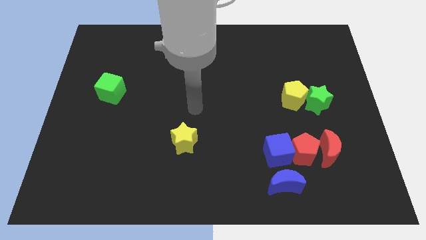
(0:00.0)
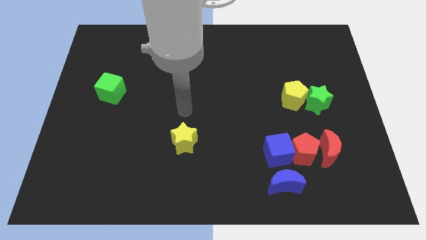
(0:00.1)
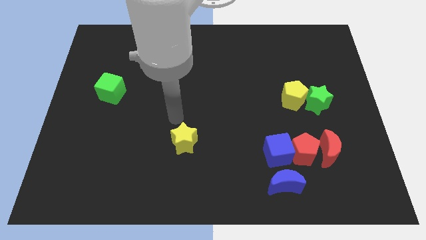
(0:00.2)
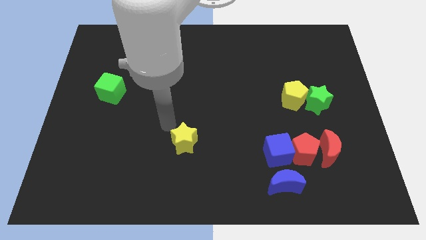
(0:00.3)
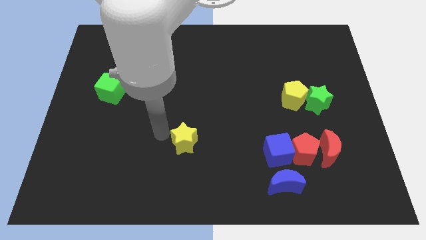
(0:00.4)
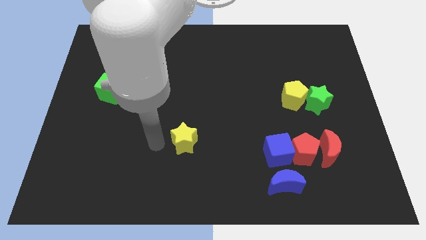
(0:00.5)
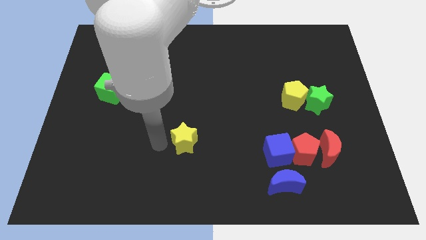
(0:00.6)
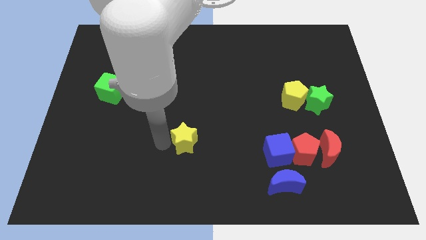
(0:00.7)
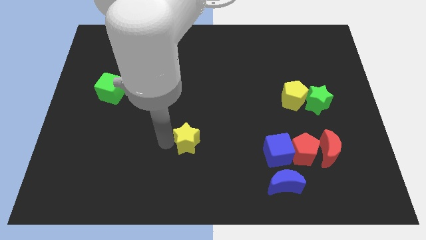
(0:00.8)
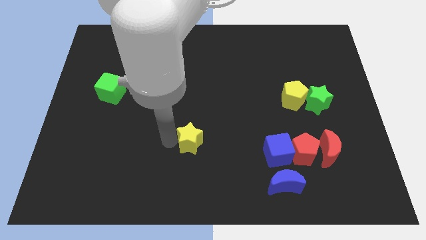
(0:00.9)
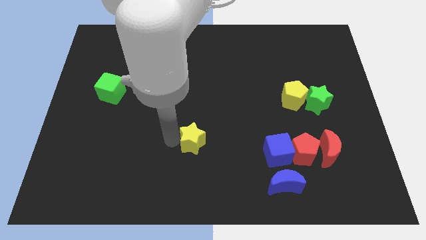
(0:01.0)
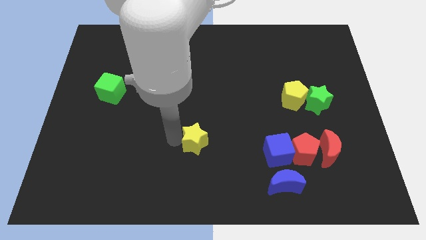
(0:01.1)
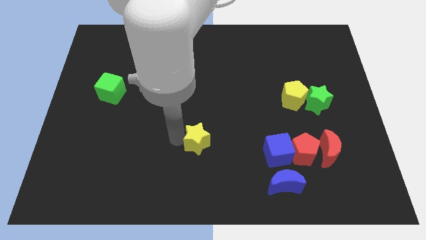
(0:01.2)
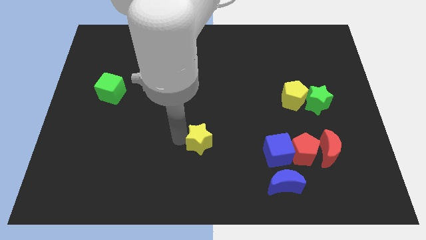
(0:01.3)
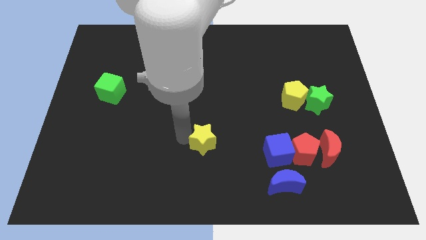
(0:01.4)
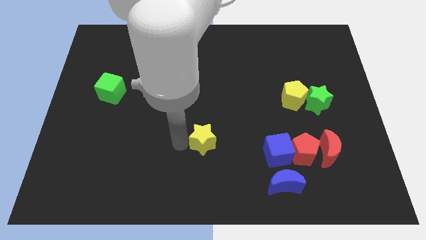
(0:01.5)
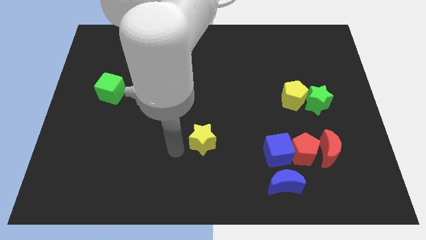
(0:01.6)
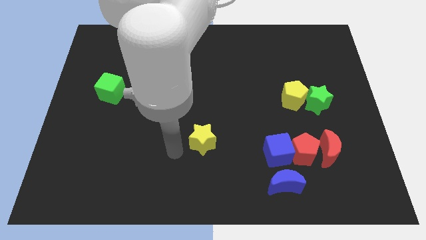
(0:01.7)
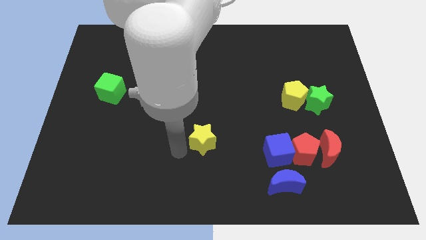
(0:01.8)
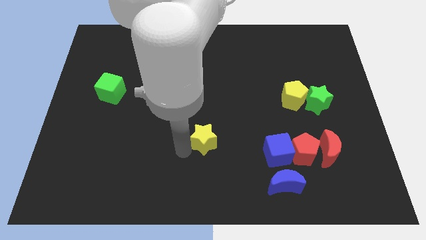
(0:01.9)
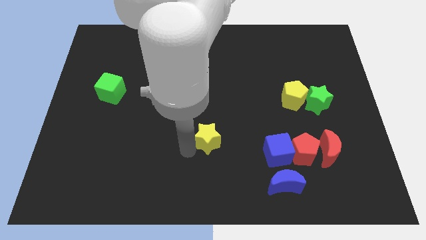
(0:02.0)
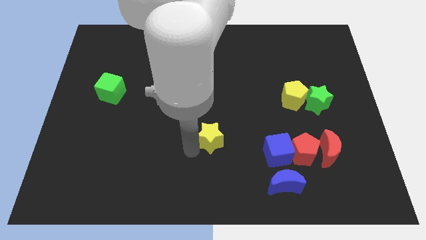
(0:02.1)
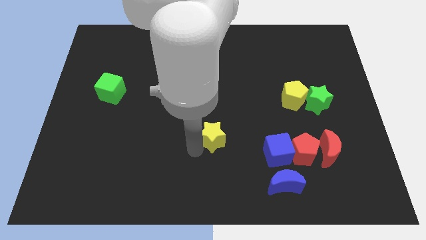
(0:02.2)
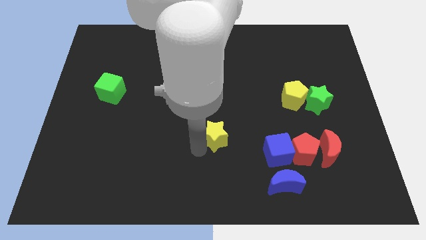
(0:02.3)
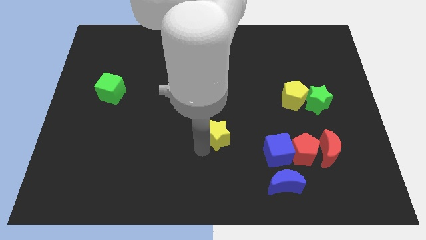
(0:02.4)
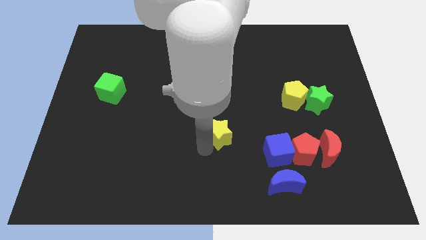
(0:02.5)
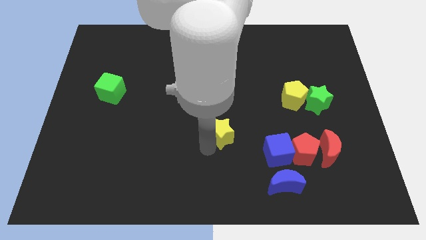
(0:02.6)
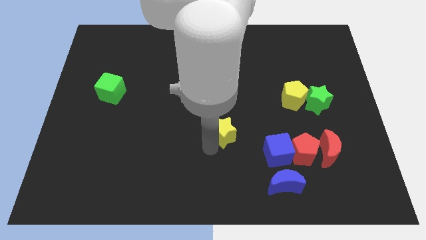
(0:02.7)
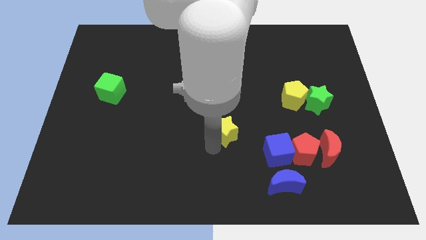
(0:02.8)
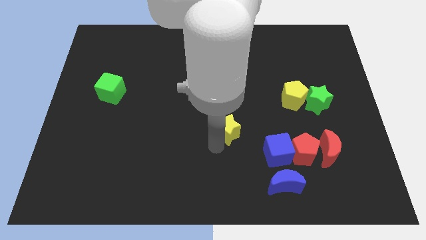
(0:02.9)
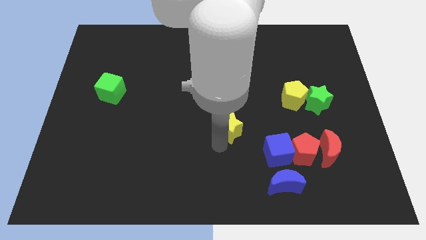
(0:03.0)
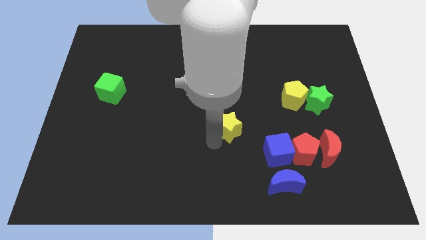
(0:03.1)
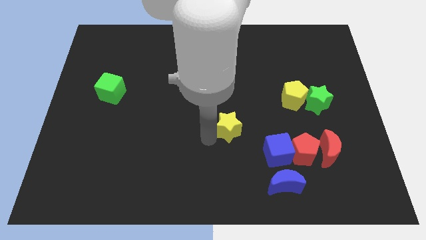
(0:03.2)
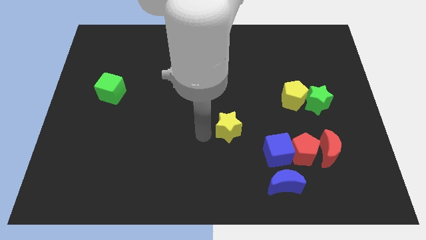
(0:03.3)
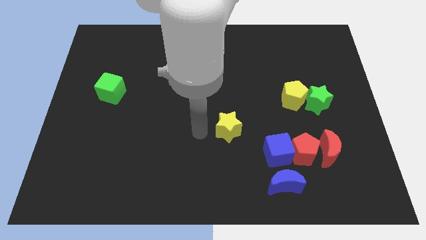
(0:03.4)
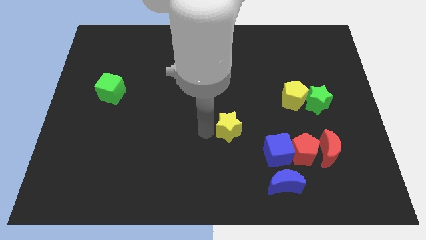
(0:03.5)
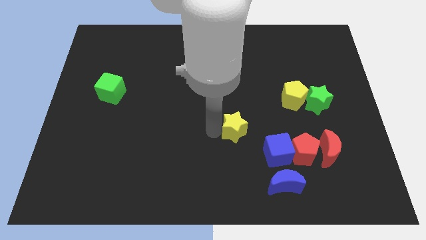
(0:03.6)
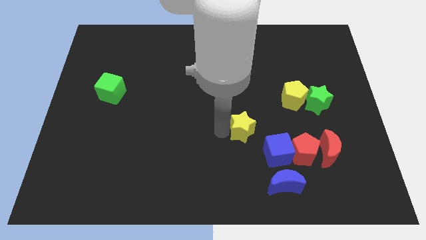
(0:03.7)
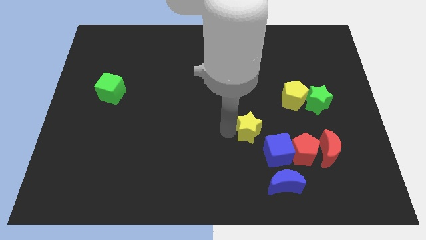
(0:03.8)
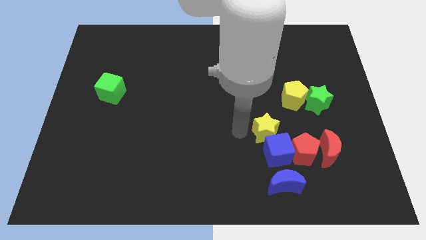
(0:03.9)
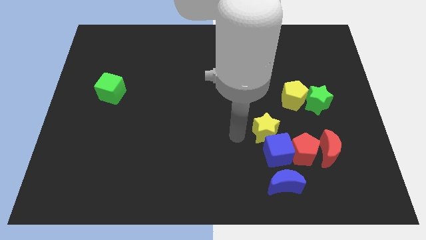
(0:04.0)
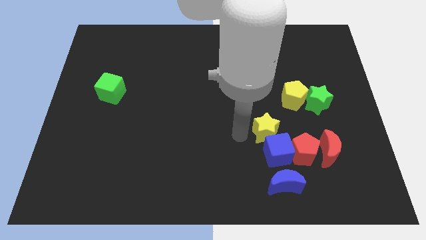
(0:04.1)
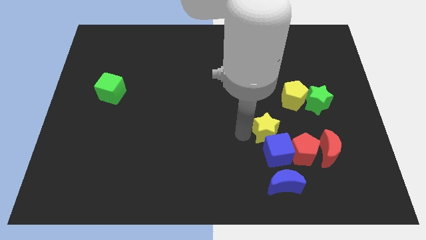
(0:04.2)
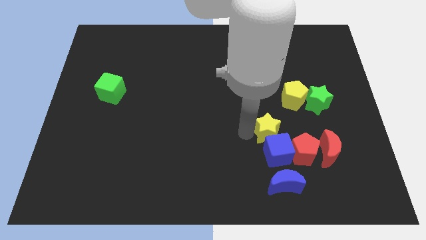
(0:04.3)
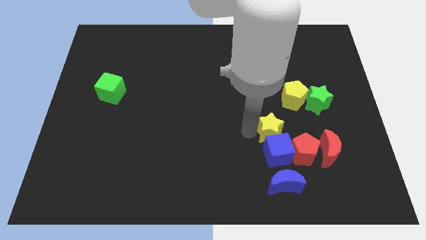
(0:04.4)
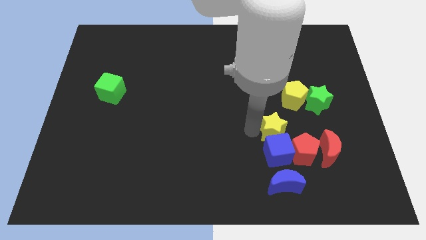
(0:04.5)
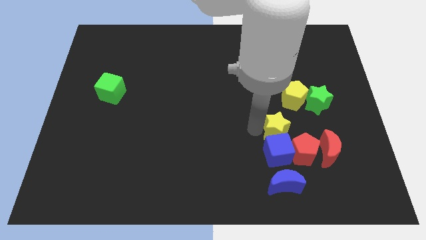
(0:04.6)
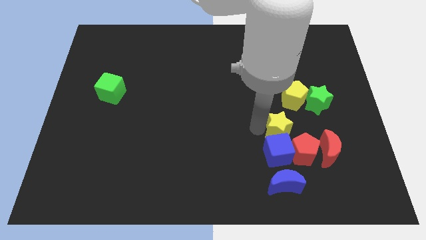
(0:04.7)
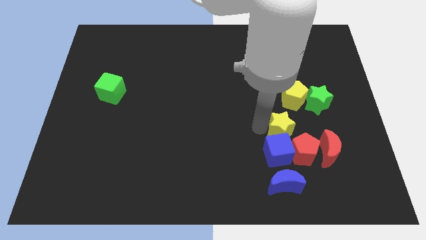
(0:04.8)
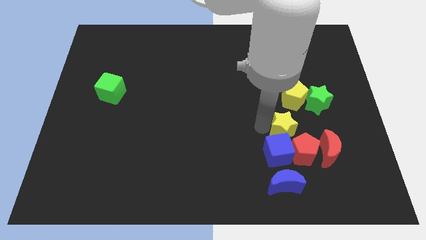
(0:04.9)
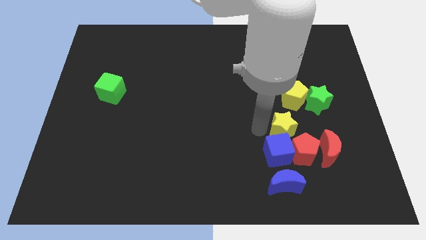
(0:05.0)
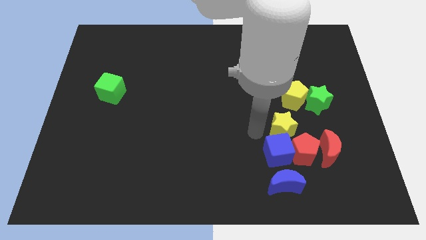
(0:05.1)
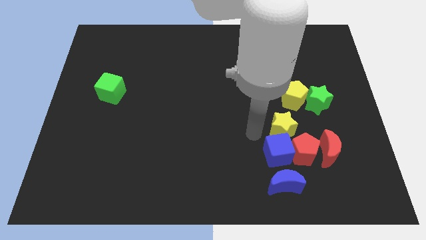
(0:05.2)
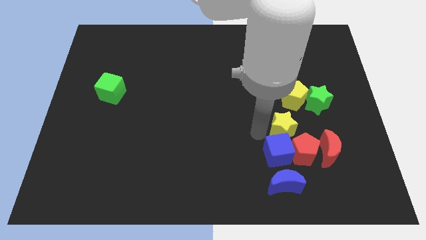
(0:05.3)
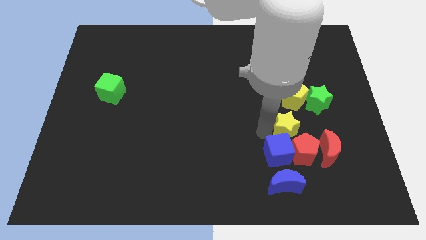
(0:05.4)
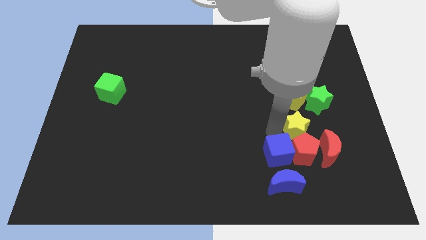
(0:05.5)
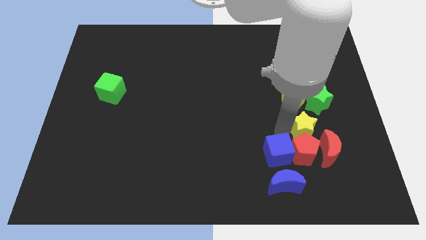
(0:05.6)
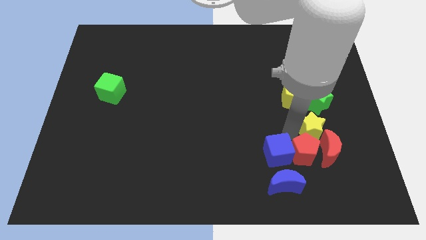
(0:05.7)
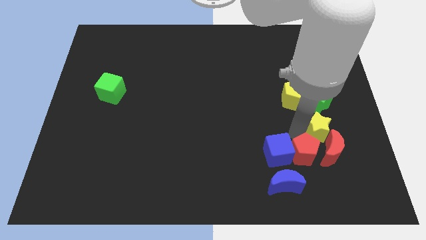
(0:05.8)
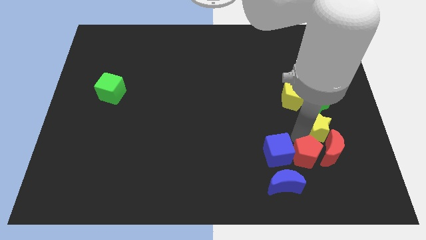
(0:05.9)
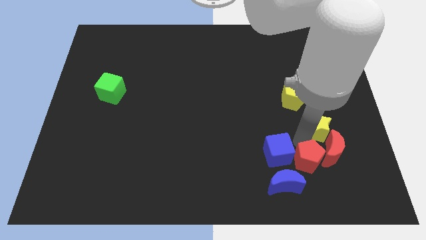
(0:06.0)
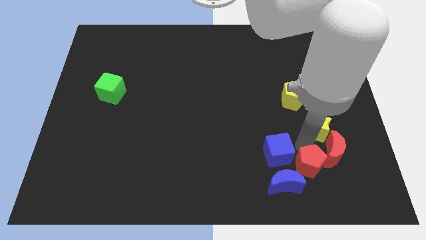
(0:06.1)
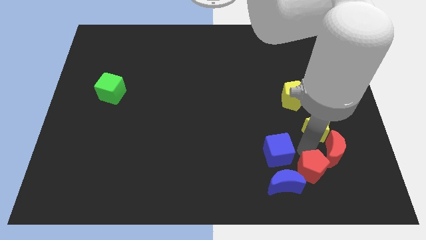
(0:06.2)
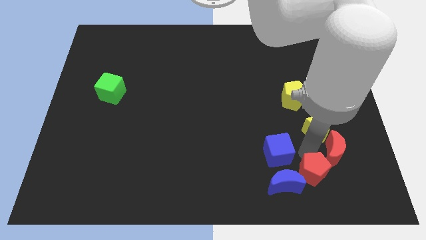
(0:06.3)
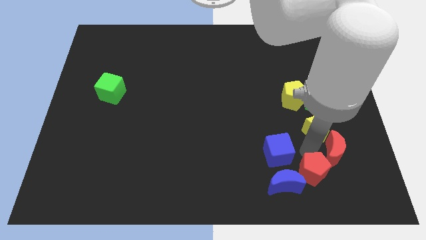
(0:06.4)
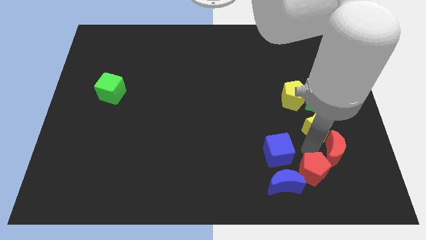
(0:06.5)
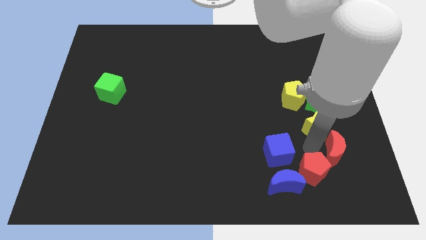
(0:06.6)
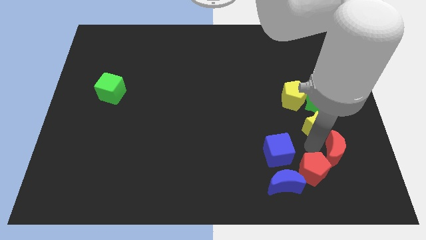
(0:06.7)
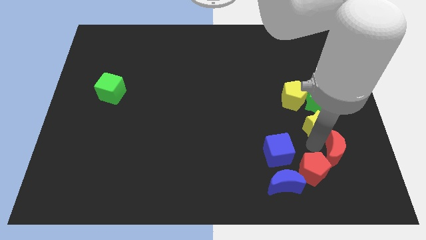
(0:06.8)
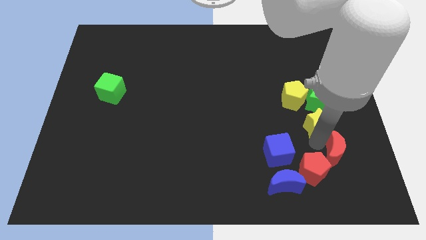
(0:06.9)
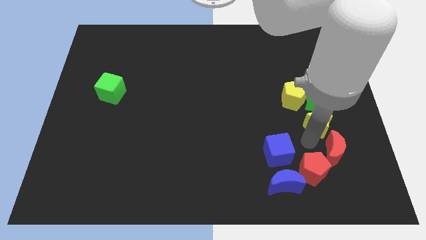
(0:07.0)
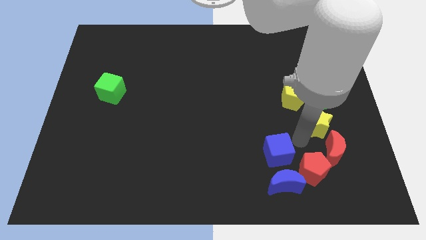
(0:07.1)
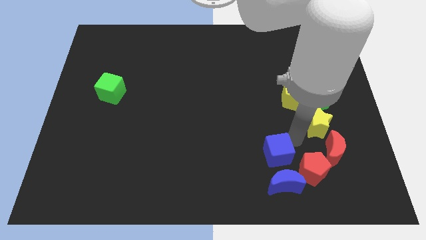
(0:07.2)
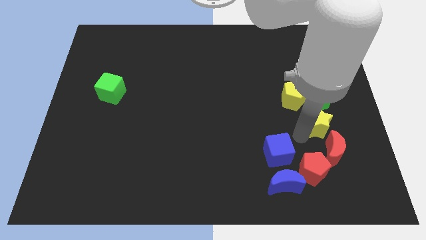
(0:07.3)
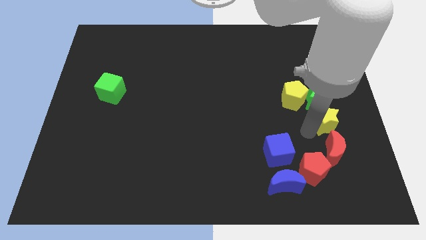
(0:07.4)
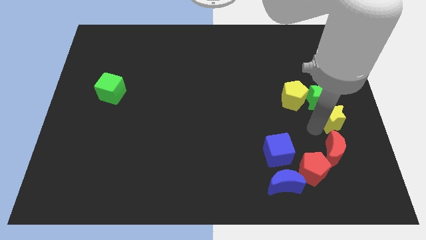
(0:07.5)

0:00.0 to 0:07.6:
put the yellow star to the right side

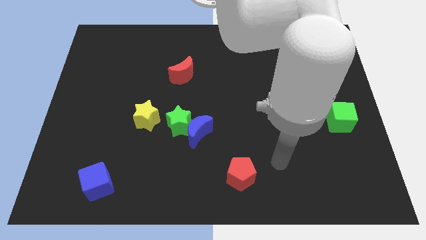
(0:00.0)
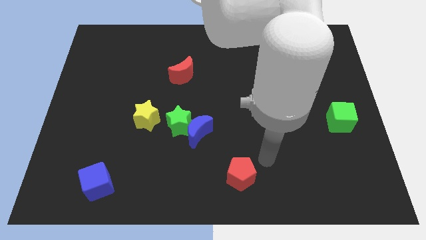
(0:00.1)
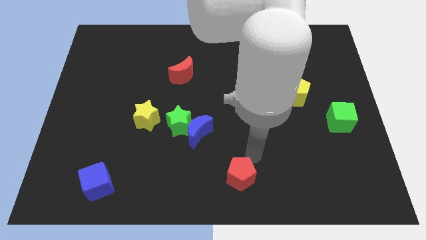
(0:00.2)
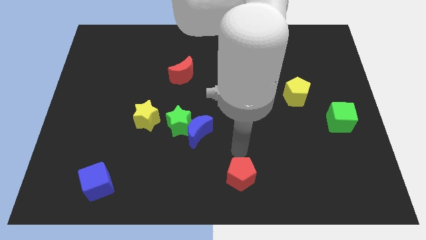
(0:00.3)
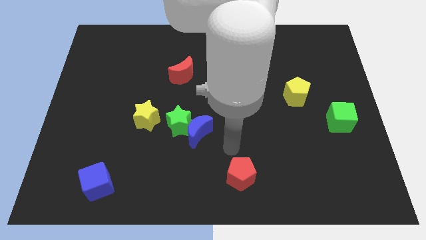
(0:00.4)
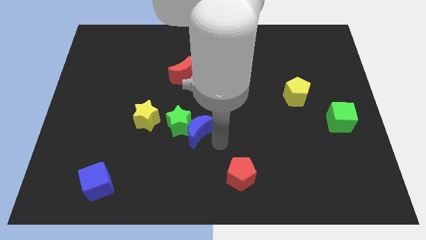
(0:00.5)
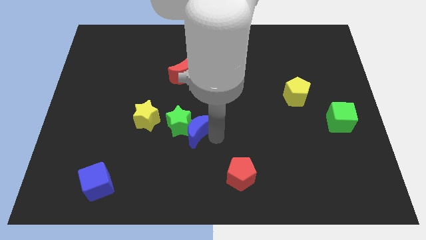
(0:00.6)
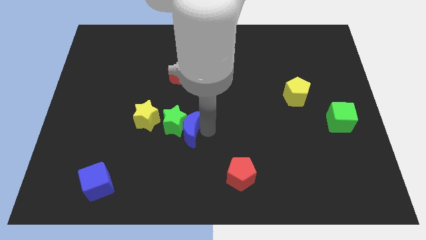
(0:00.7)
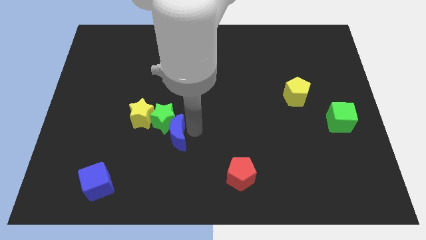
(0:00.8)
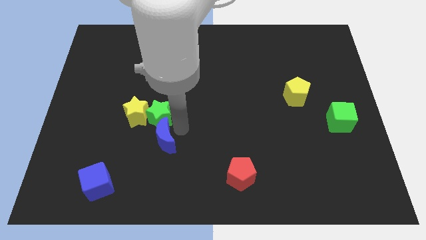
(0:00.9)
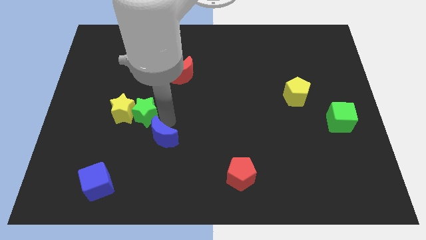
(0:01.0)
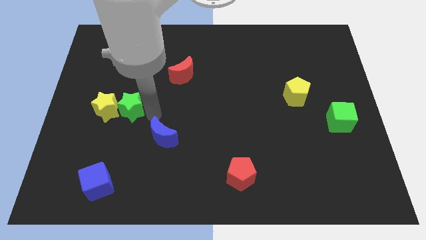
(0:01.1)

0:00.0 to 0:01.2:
put the yellow star to the left side of the board
